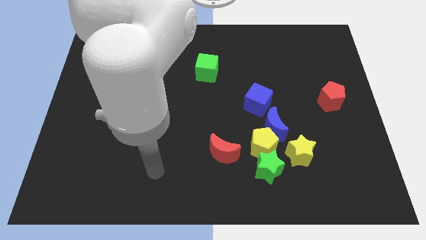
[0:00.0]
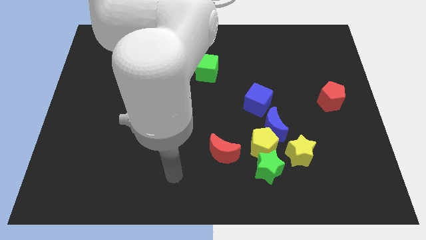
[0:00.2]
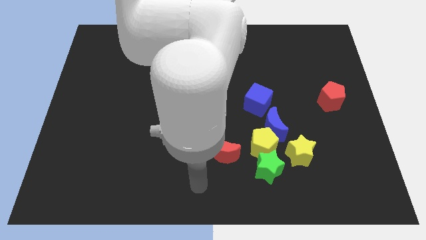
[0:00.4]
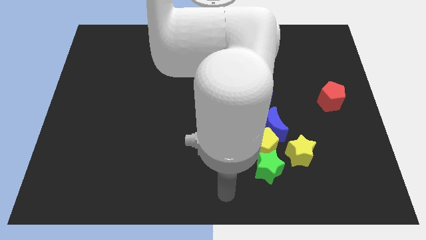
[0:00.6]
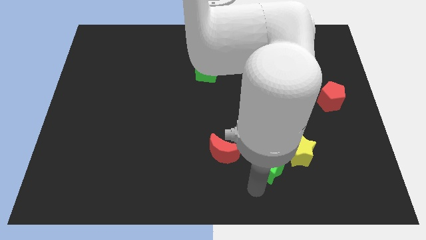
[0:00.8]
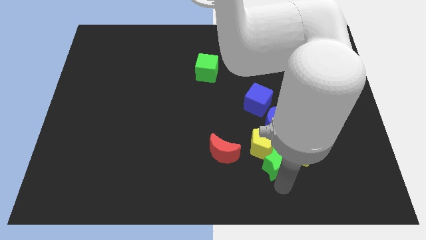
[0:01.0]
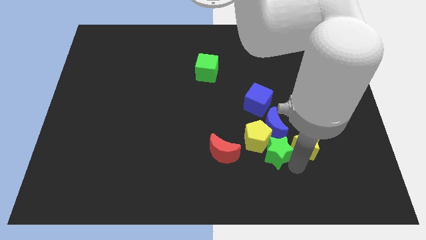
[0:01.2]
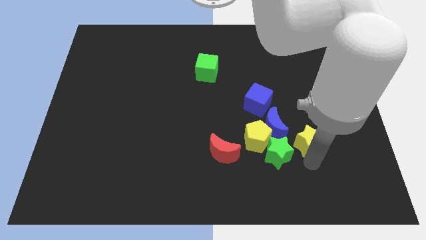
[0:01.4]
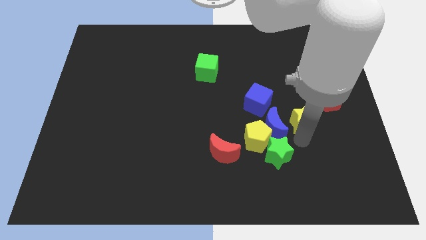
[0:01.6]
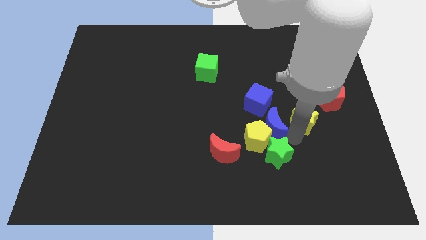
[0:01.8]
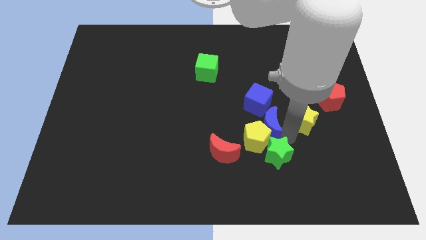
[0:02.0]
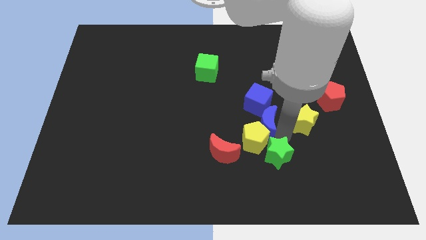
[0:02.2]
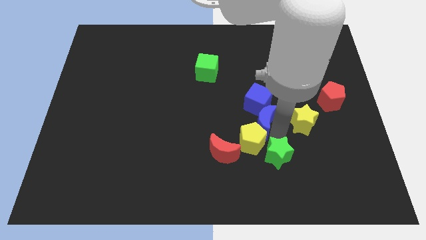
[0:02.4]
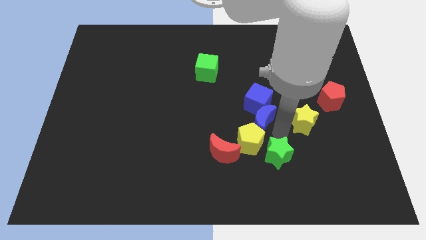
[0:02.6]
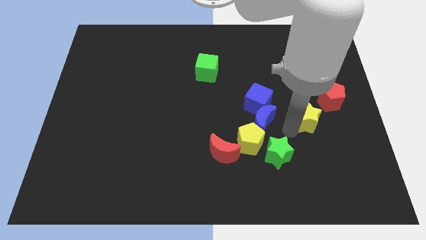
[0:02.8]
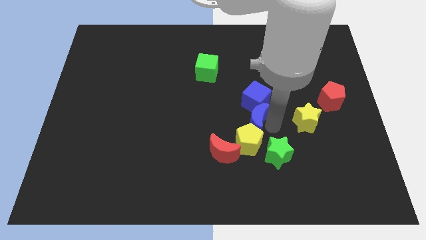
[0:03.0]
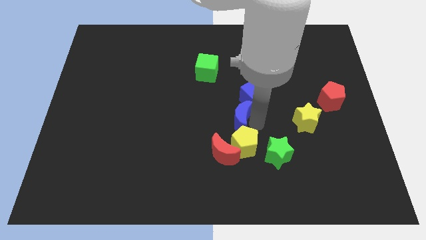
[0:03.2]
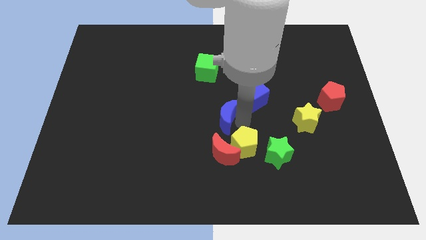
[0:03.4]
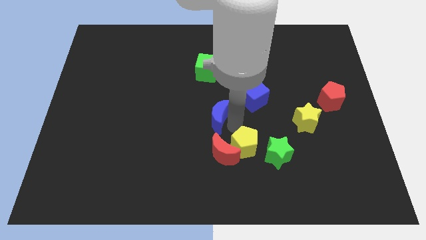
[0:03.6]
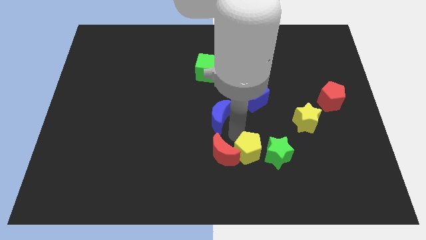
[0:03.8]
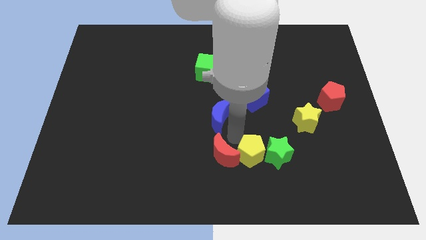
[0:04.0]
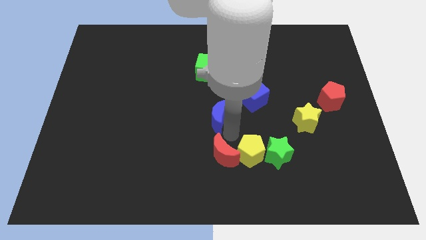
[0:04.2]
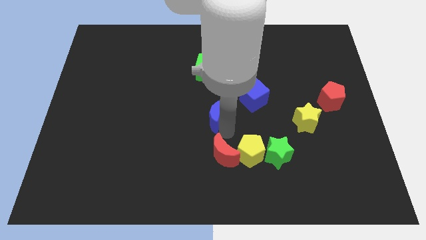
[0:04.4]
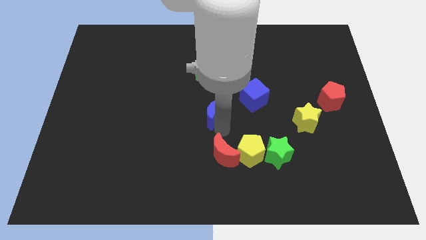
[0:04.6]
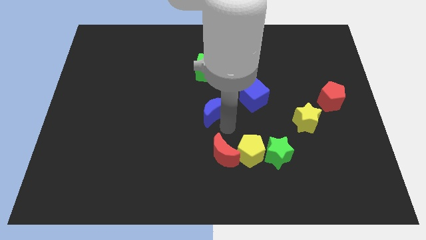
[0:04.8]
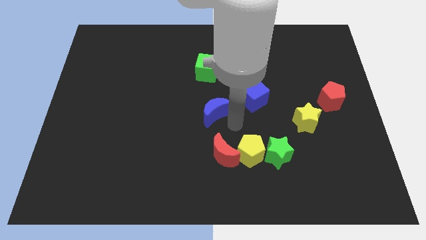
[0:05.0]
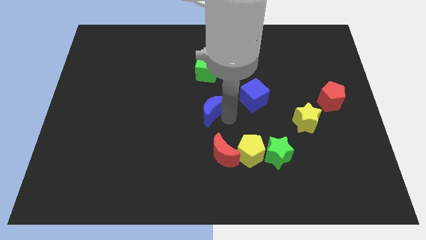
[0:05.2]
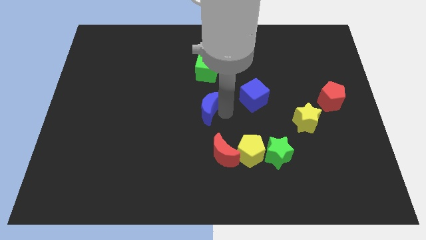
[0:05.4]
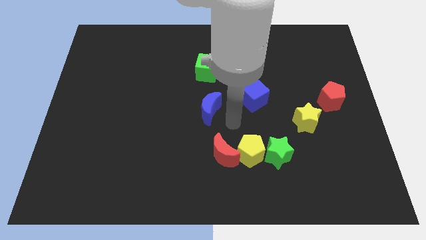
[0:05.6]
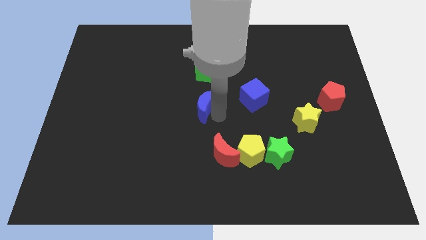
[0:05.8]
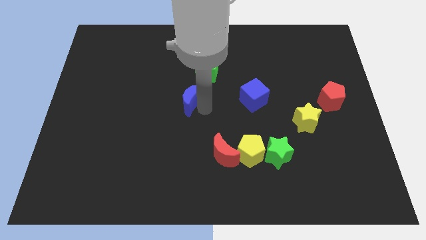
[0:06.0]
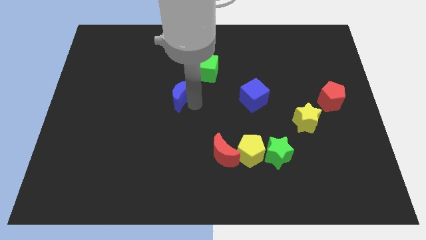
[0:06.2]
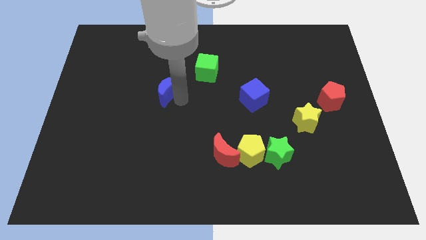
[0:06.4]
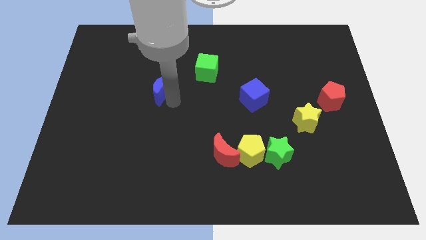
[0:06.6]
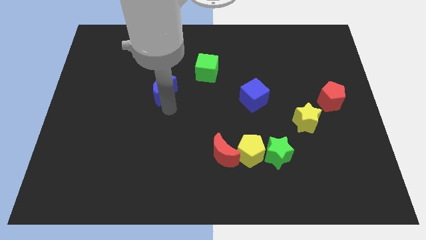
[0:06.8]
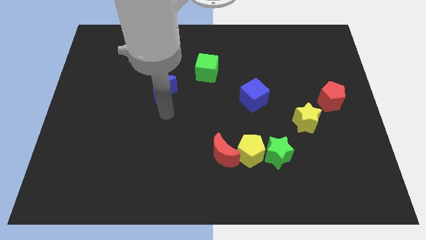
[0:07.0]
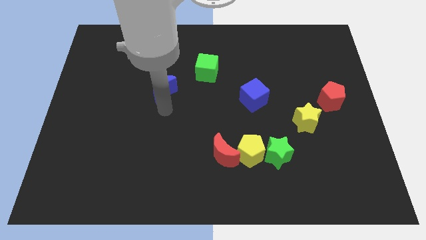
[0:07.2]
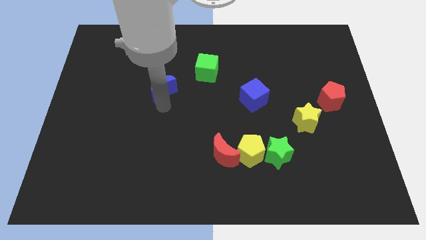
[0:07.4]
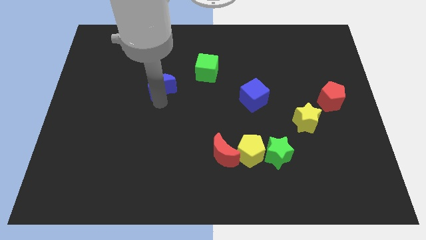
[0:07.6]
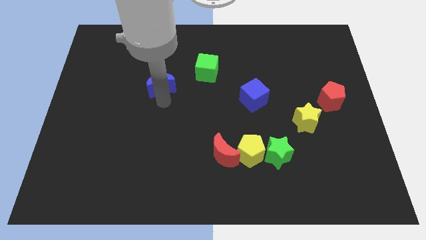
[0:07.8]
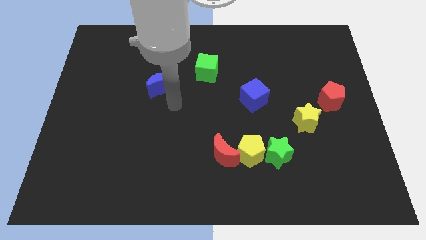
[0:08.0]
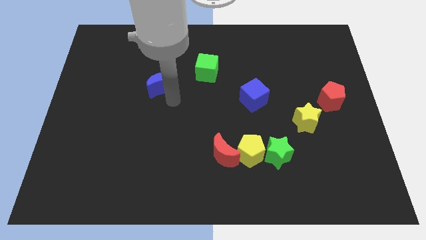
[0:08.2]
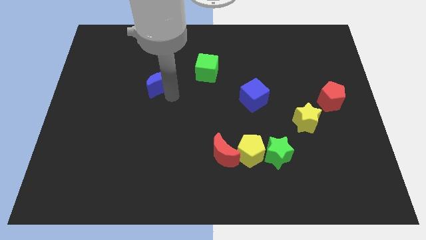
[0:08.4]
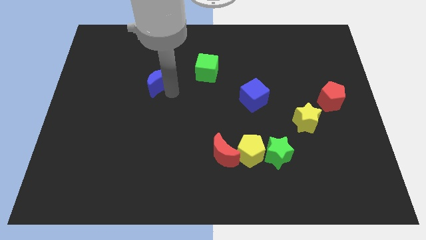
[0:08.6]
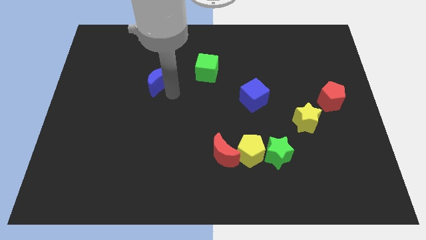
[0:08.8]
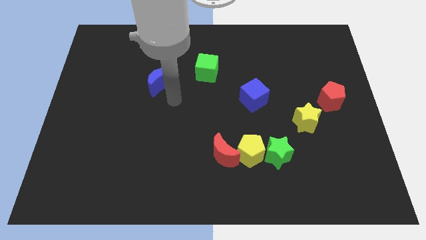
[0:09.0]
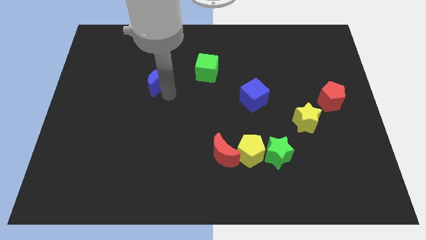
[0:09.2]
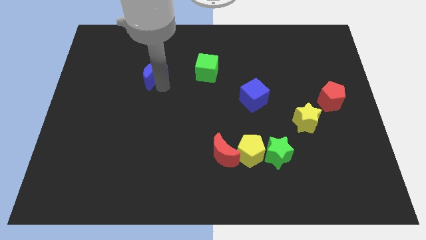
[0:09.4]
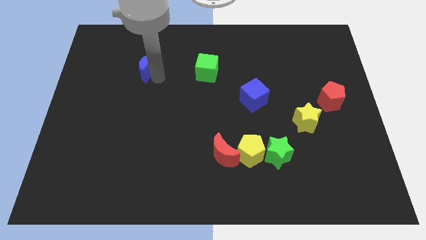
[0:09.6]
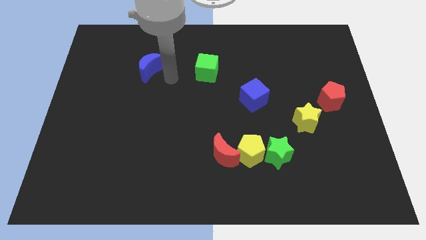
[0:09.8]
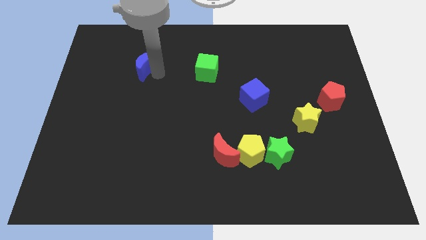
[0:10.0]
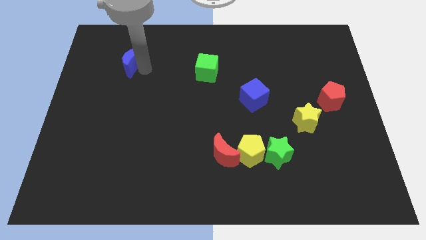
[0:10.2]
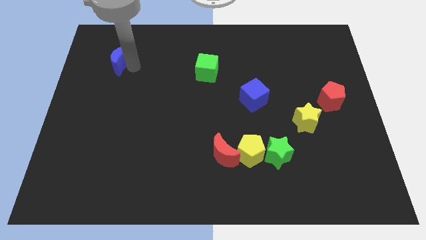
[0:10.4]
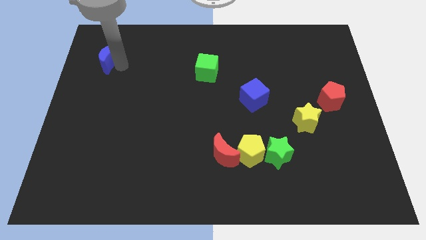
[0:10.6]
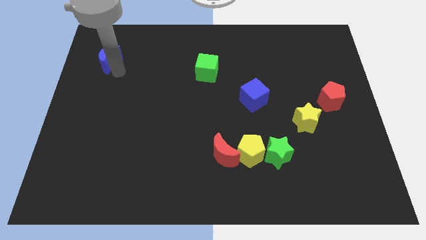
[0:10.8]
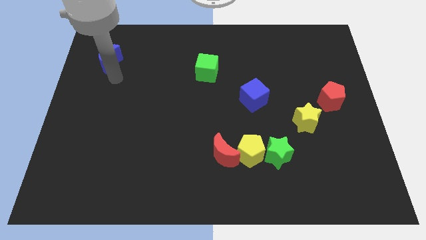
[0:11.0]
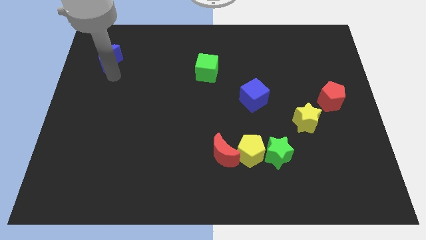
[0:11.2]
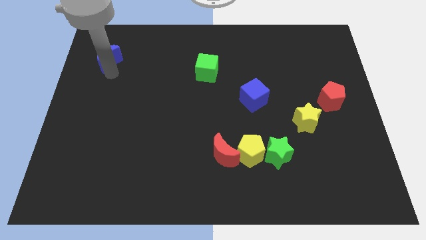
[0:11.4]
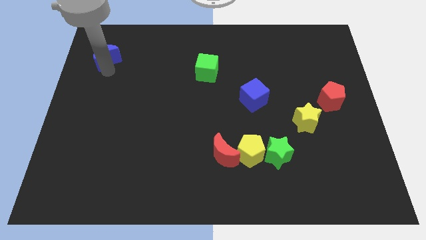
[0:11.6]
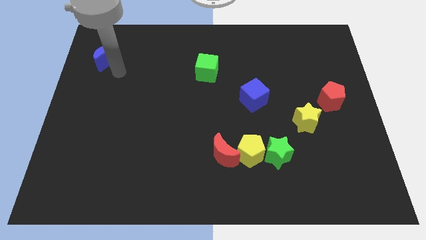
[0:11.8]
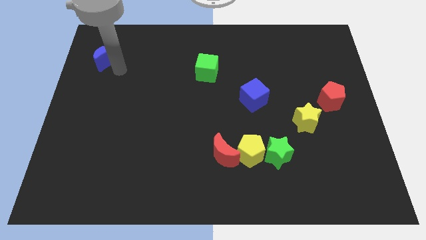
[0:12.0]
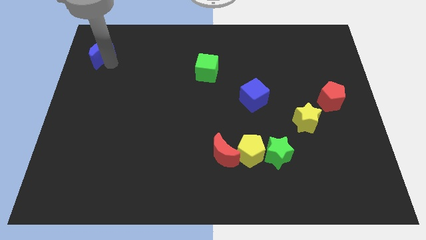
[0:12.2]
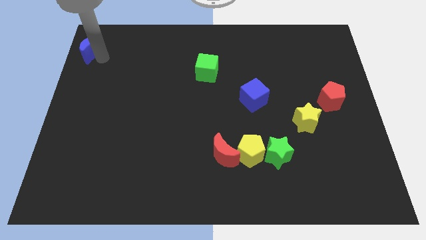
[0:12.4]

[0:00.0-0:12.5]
put the blue moon to the top left corner

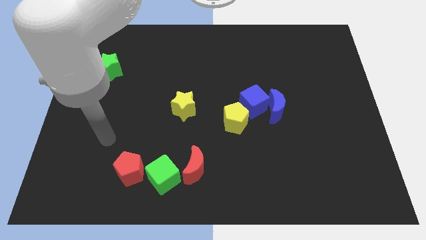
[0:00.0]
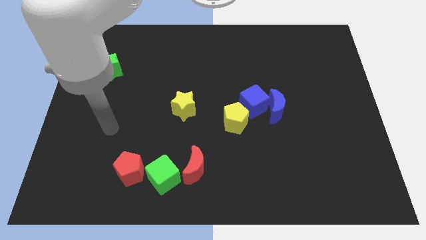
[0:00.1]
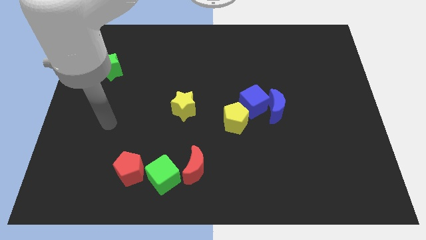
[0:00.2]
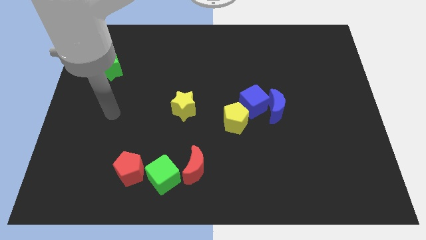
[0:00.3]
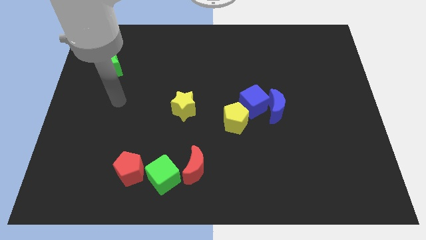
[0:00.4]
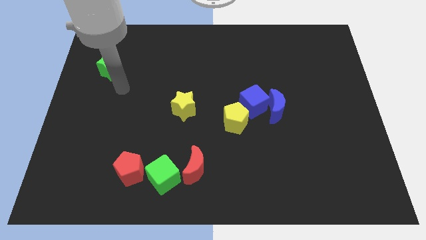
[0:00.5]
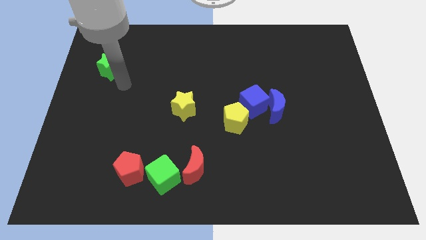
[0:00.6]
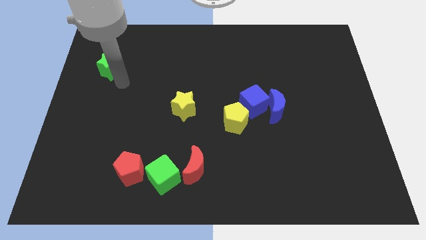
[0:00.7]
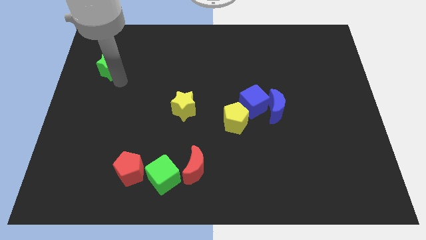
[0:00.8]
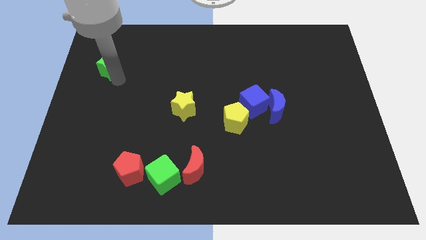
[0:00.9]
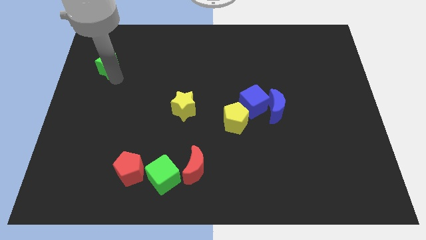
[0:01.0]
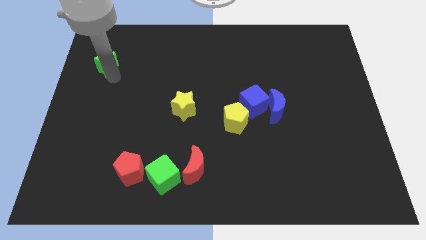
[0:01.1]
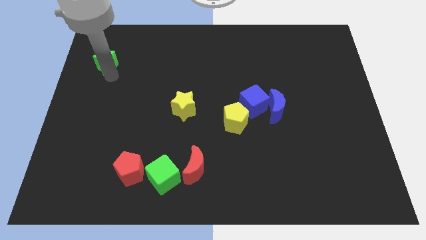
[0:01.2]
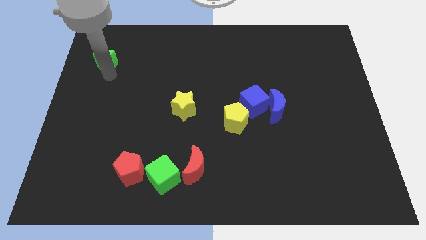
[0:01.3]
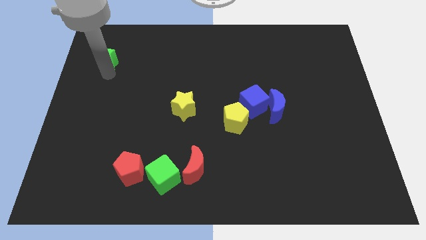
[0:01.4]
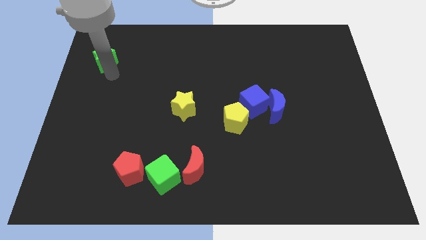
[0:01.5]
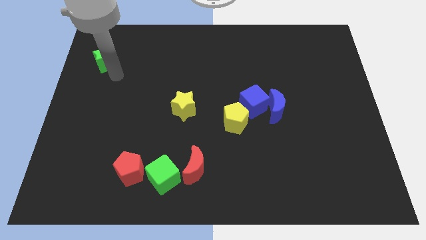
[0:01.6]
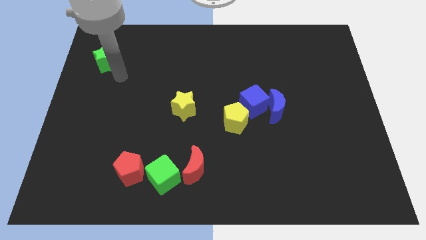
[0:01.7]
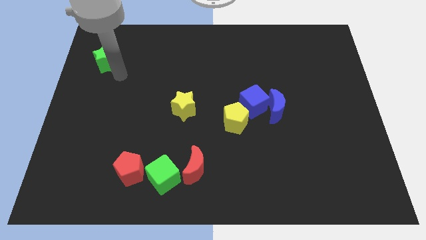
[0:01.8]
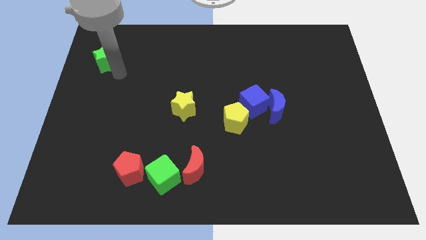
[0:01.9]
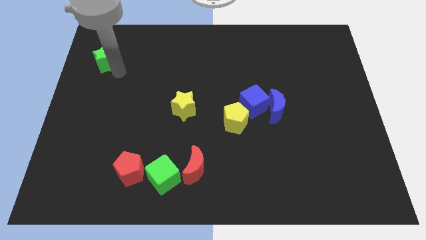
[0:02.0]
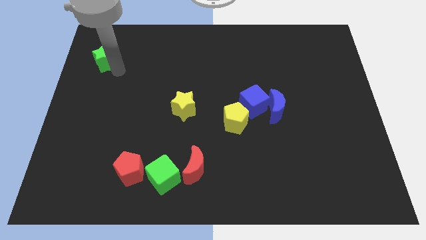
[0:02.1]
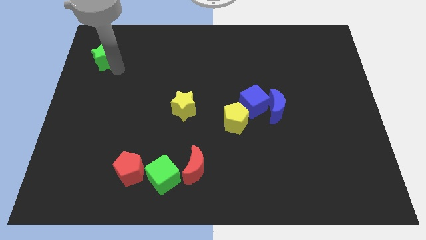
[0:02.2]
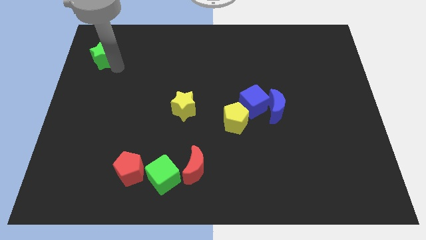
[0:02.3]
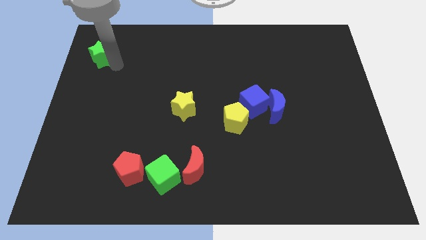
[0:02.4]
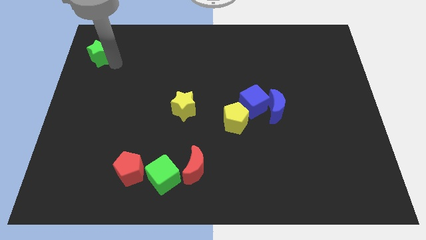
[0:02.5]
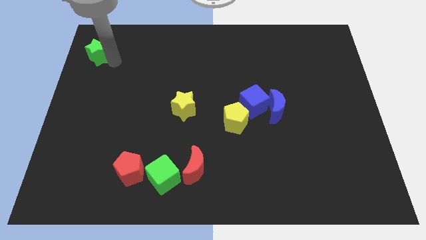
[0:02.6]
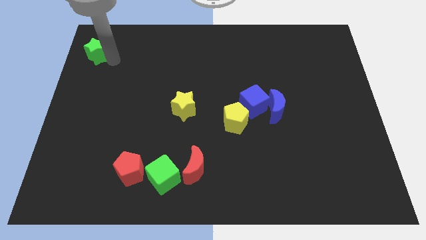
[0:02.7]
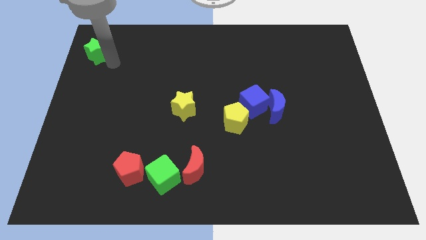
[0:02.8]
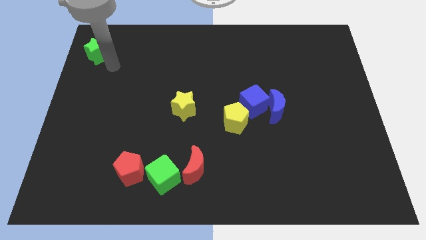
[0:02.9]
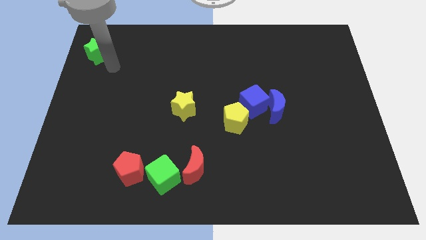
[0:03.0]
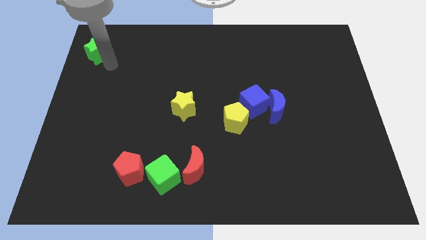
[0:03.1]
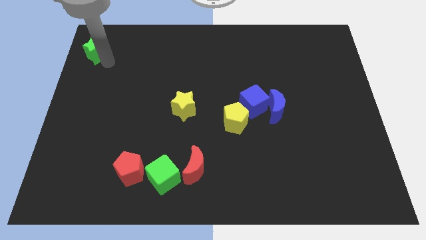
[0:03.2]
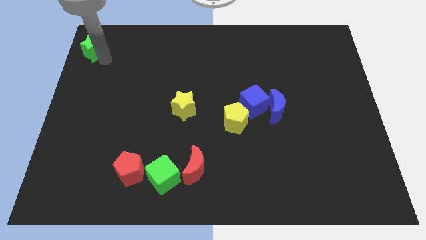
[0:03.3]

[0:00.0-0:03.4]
slide the green star to the top left of the board
